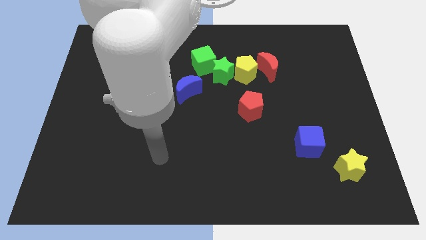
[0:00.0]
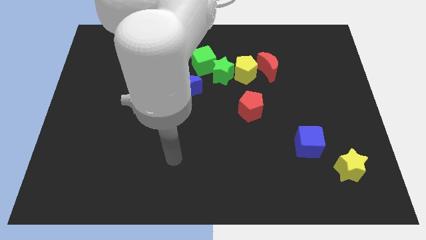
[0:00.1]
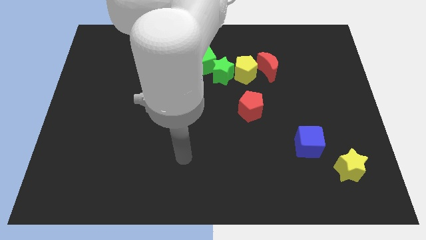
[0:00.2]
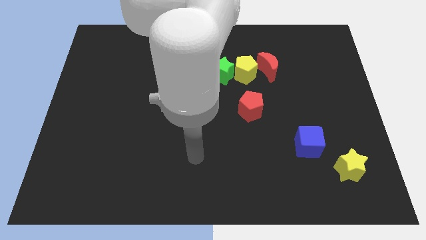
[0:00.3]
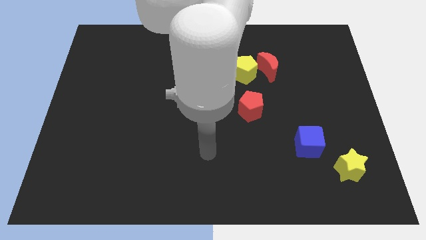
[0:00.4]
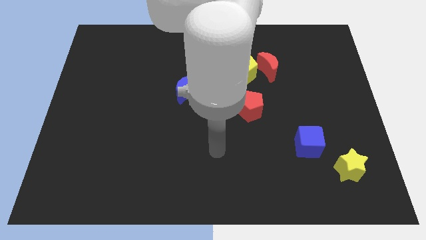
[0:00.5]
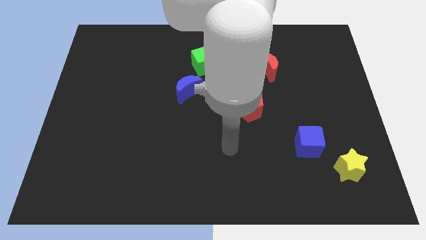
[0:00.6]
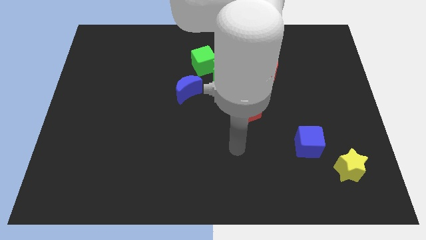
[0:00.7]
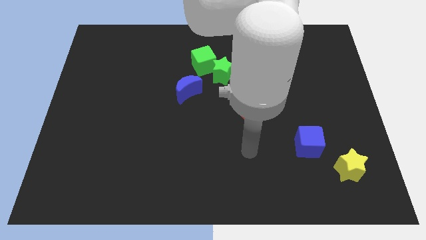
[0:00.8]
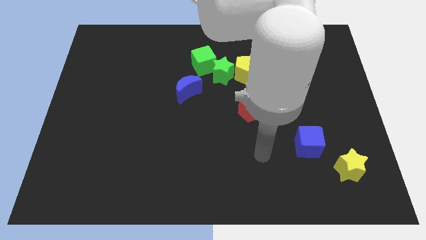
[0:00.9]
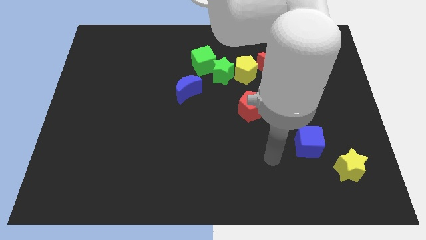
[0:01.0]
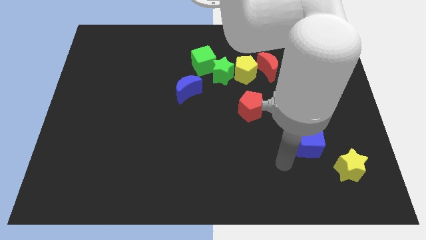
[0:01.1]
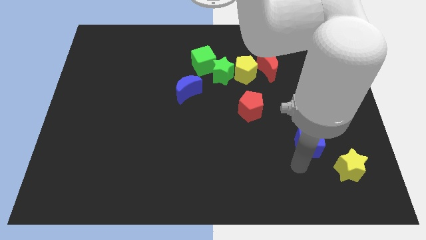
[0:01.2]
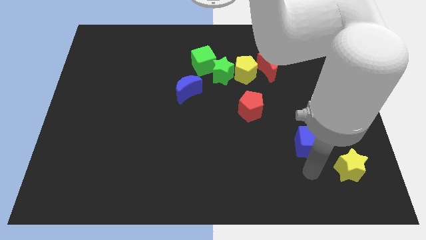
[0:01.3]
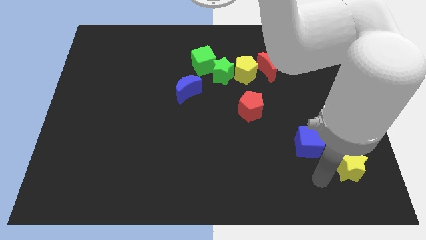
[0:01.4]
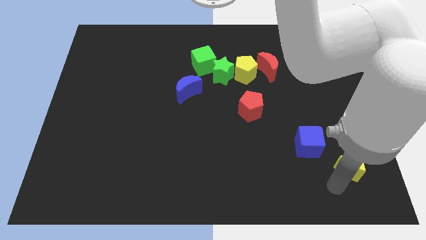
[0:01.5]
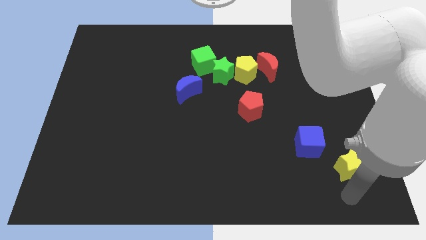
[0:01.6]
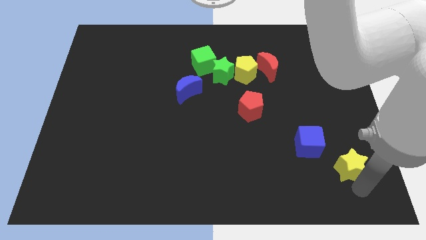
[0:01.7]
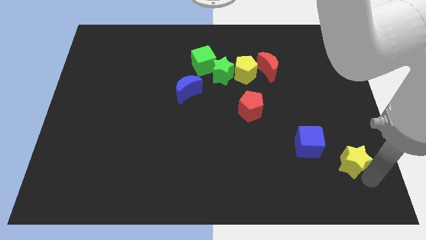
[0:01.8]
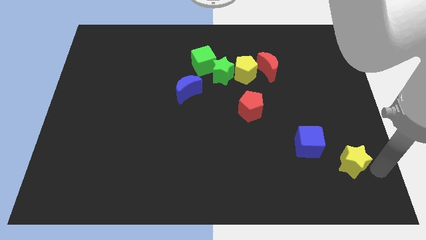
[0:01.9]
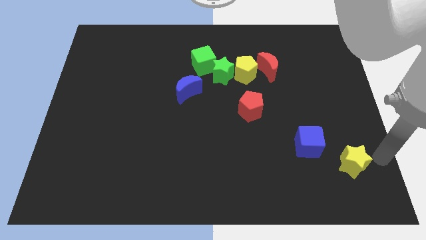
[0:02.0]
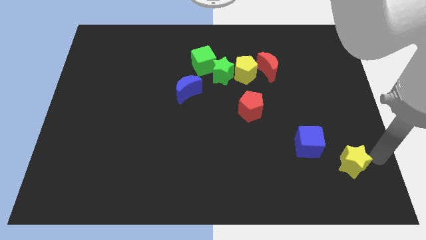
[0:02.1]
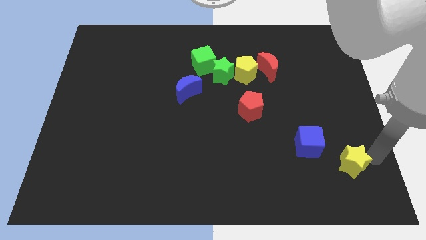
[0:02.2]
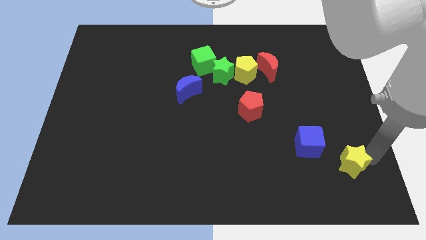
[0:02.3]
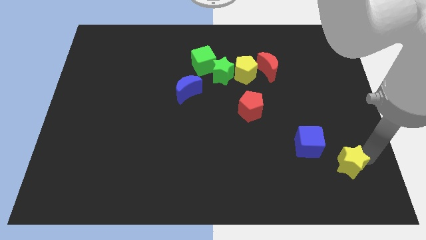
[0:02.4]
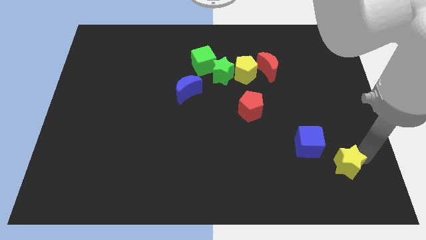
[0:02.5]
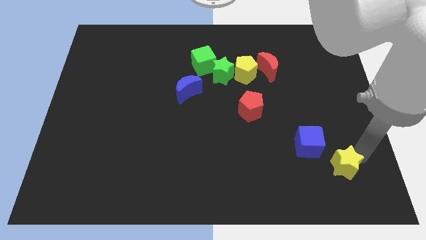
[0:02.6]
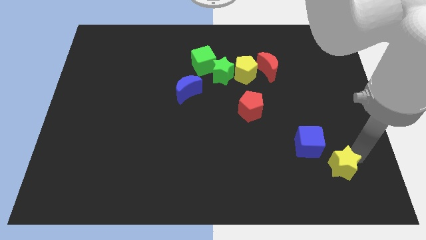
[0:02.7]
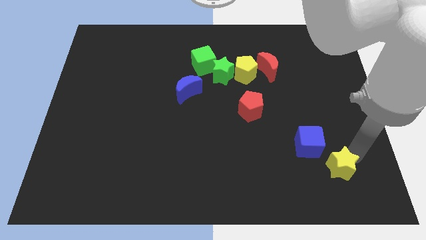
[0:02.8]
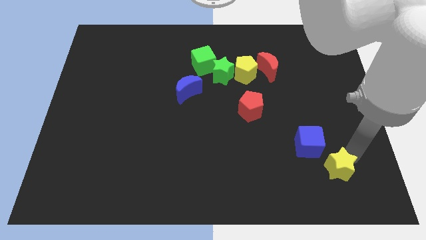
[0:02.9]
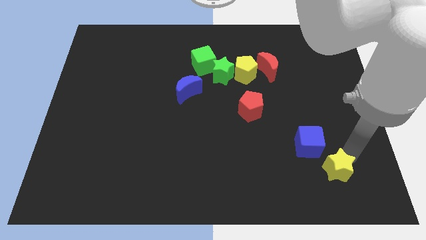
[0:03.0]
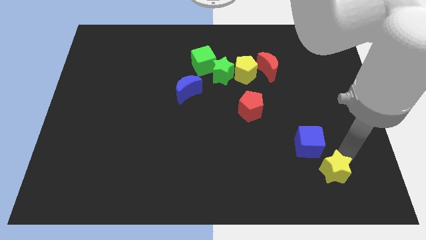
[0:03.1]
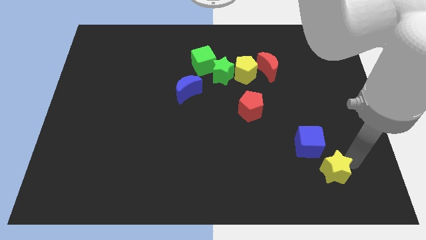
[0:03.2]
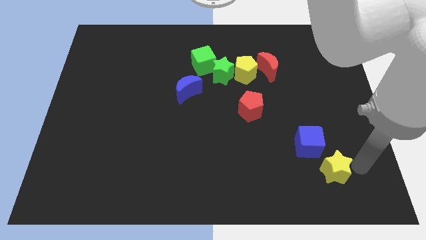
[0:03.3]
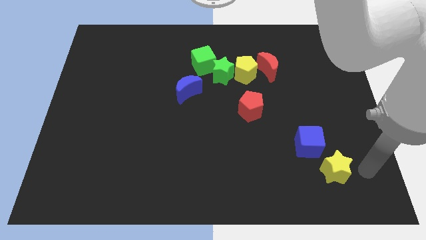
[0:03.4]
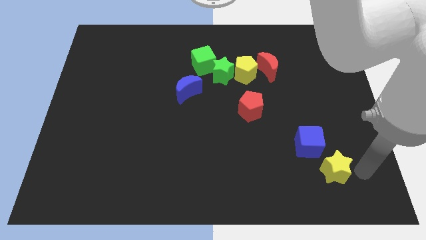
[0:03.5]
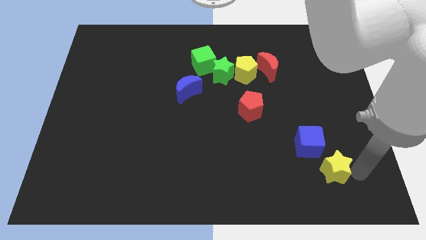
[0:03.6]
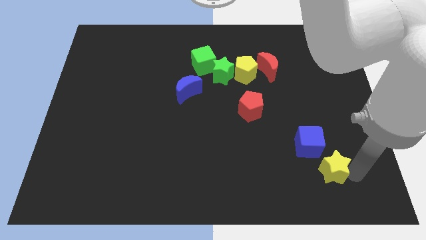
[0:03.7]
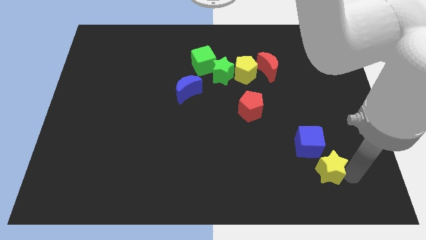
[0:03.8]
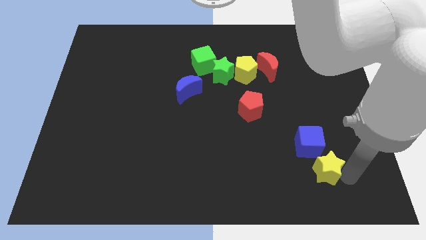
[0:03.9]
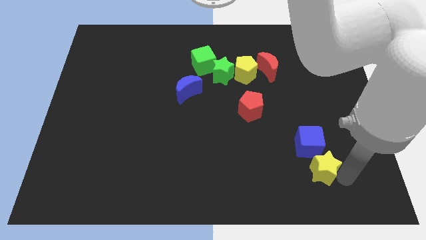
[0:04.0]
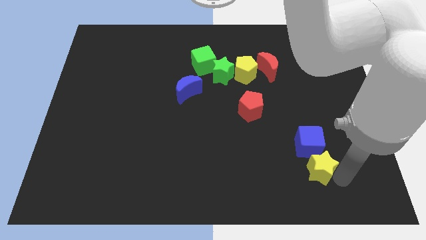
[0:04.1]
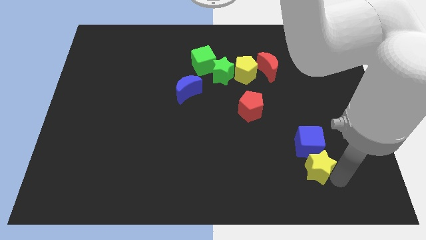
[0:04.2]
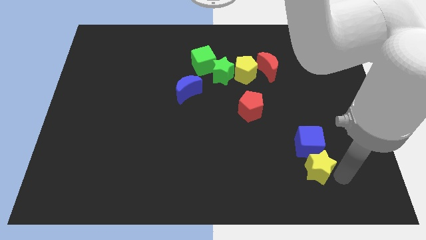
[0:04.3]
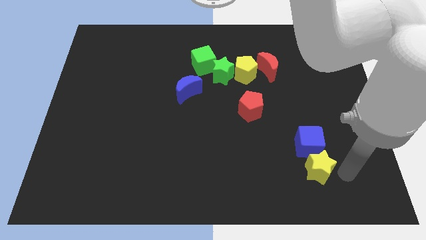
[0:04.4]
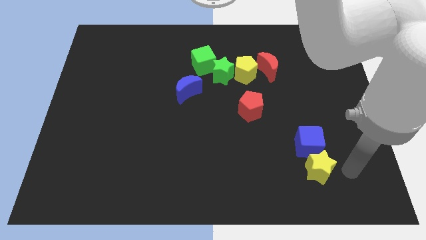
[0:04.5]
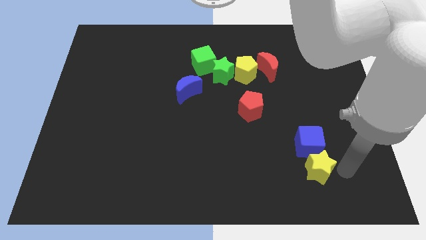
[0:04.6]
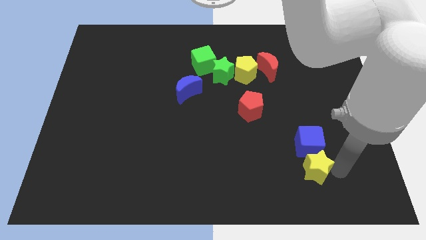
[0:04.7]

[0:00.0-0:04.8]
move the yellow star to the left a bit

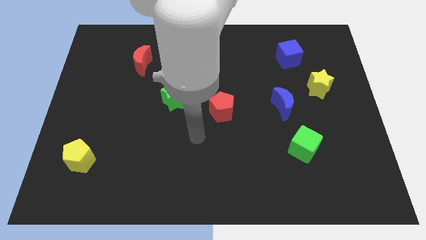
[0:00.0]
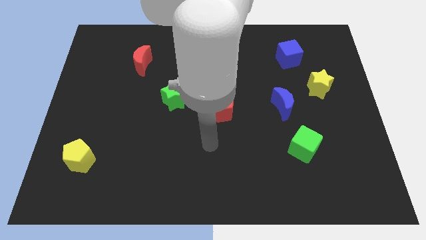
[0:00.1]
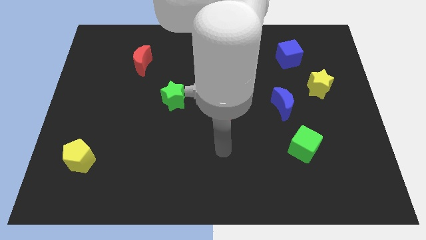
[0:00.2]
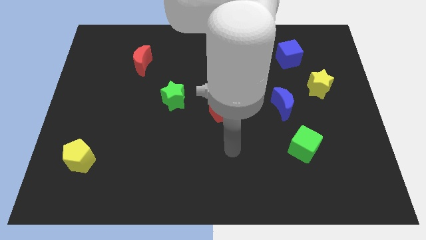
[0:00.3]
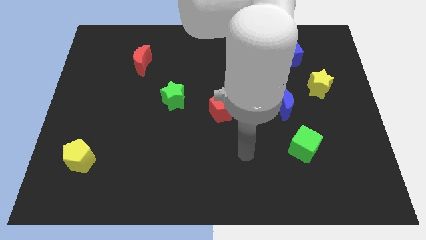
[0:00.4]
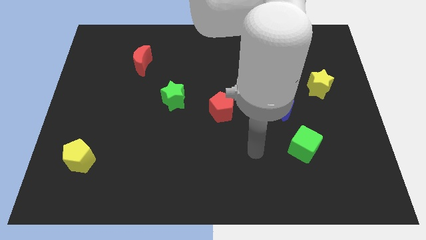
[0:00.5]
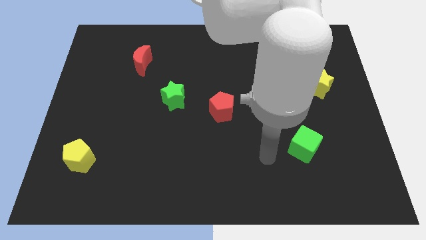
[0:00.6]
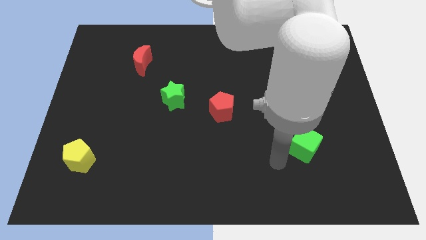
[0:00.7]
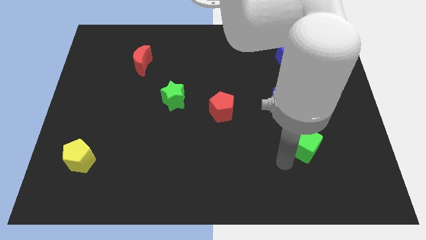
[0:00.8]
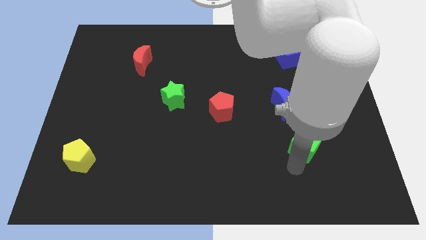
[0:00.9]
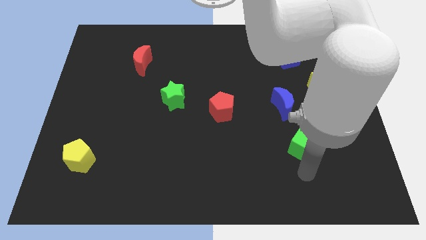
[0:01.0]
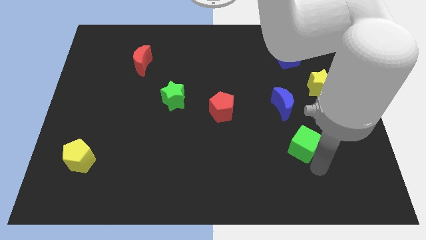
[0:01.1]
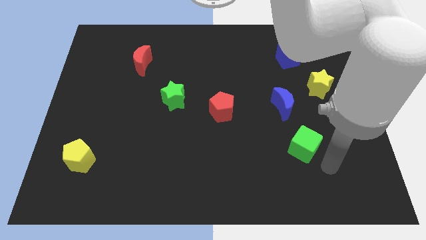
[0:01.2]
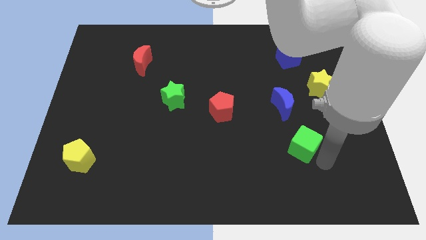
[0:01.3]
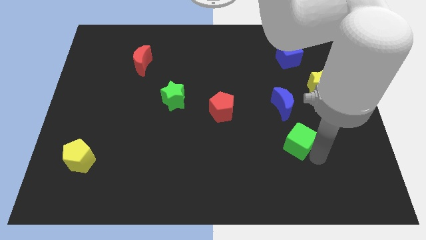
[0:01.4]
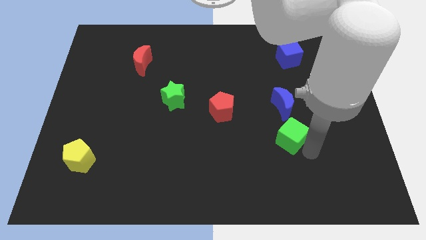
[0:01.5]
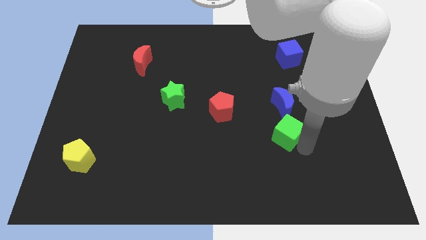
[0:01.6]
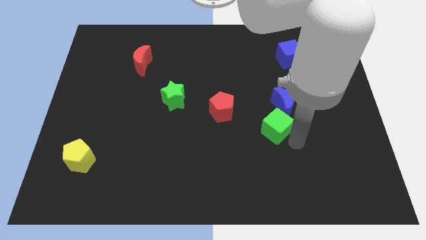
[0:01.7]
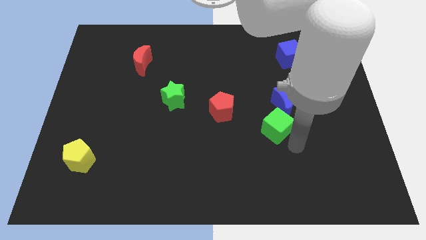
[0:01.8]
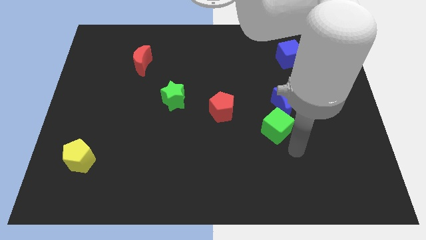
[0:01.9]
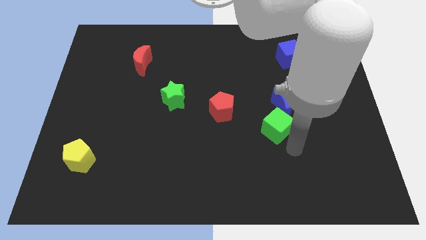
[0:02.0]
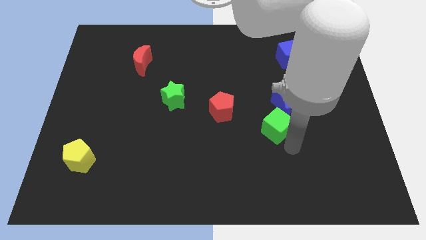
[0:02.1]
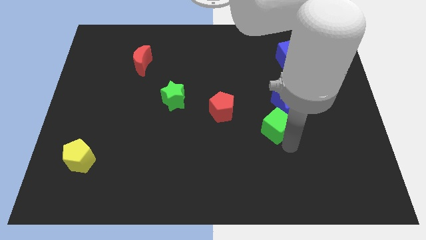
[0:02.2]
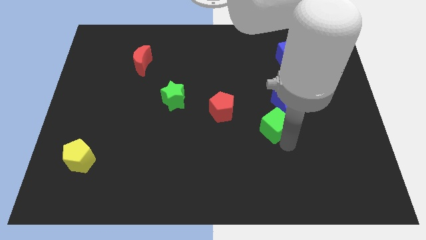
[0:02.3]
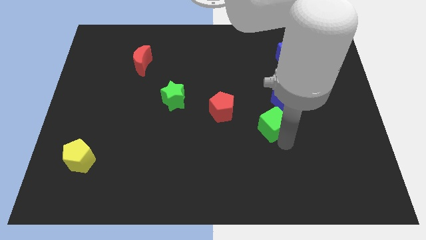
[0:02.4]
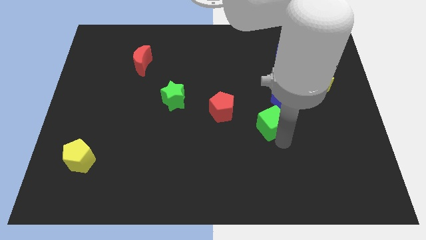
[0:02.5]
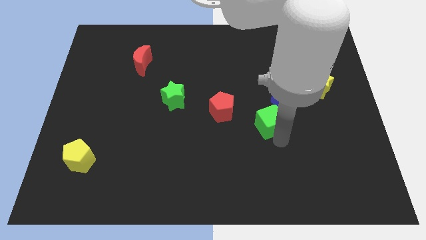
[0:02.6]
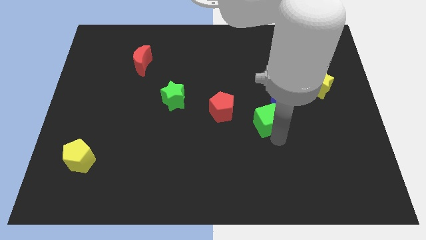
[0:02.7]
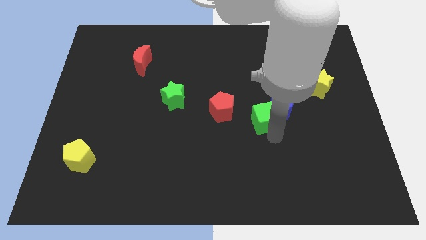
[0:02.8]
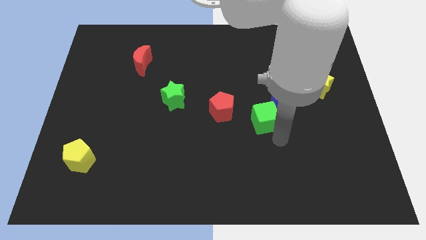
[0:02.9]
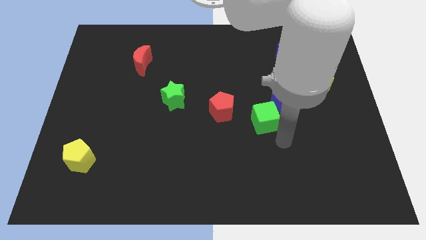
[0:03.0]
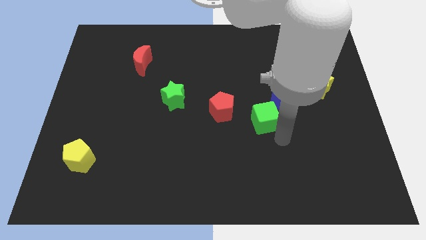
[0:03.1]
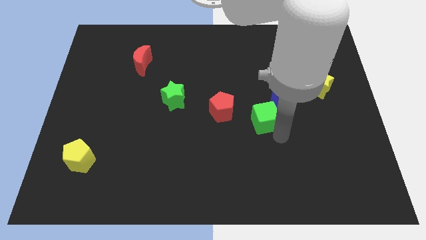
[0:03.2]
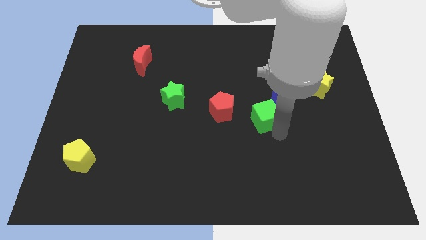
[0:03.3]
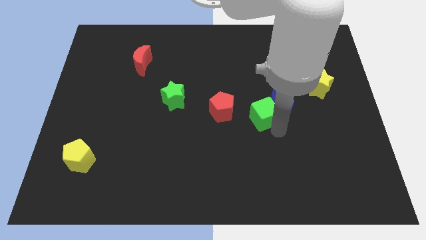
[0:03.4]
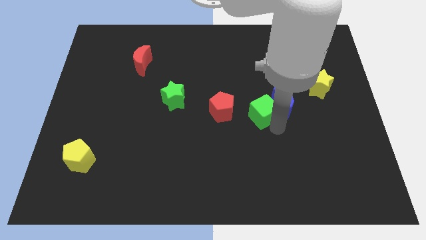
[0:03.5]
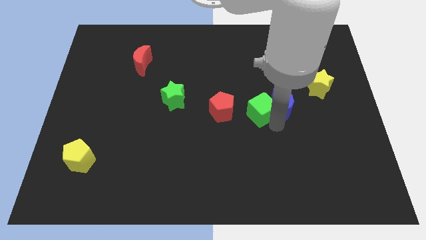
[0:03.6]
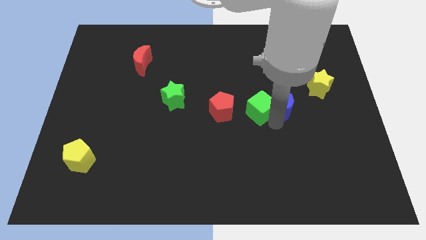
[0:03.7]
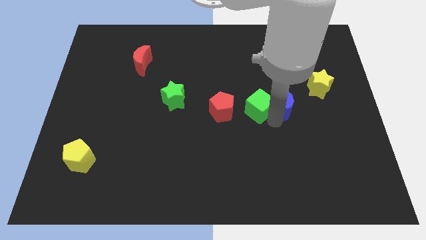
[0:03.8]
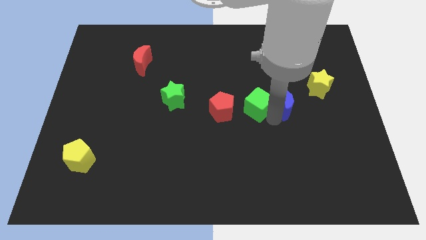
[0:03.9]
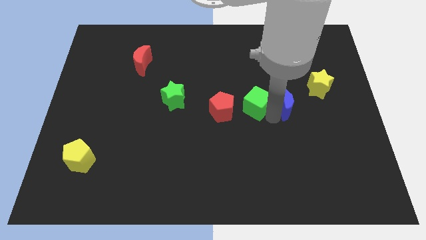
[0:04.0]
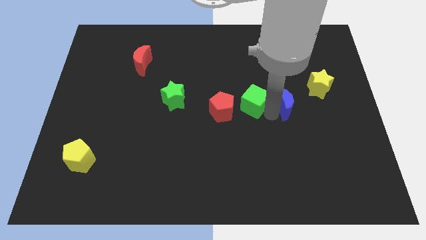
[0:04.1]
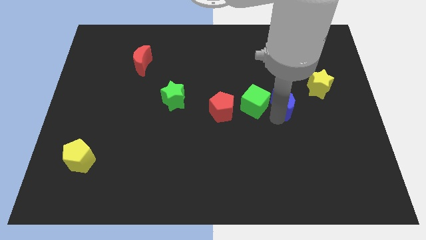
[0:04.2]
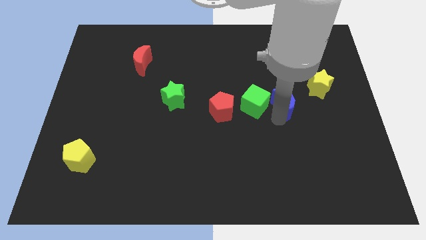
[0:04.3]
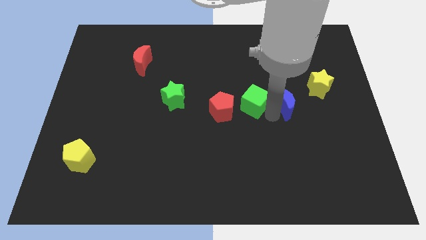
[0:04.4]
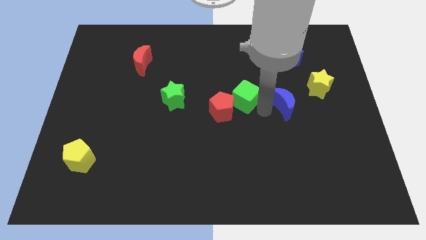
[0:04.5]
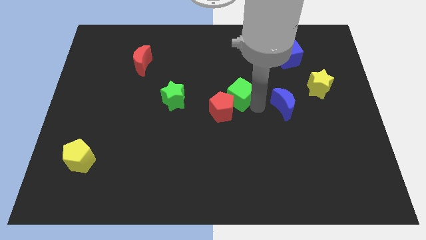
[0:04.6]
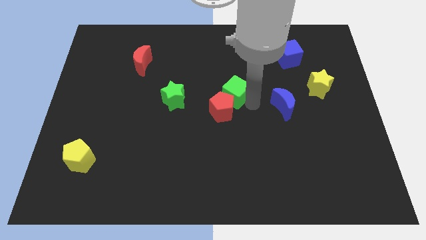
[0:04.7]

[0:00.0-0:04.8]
slide the green cube diagonally up and left
